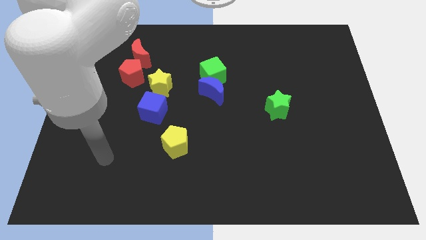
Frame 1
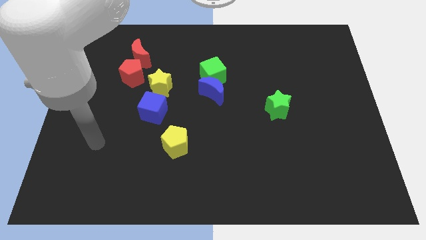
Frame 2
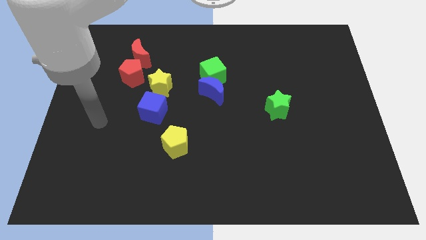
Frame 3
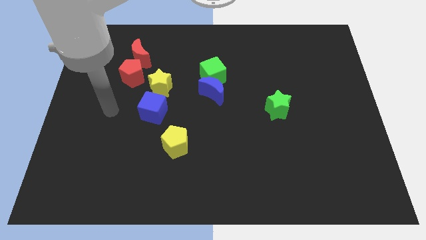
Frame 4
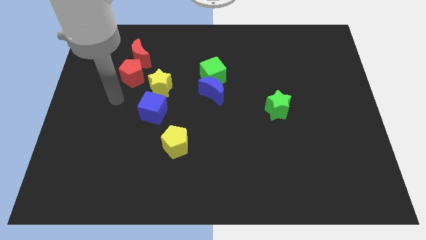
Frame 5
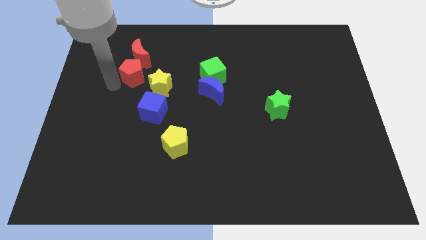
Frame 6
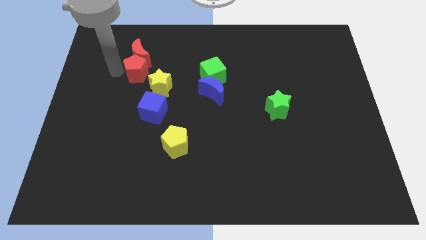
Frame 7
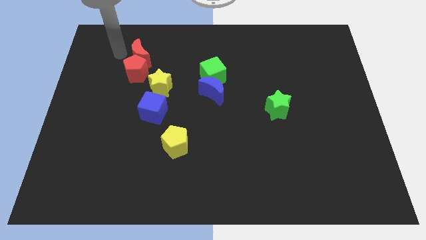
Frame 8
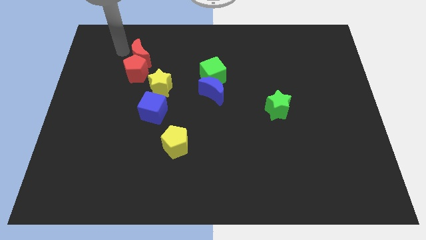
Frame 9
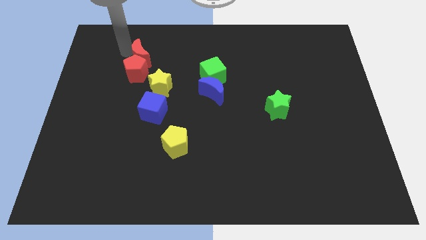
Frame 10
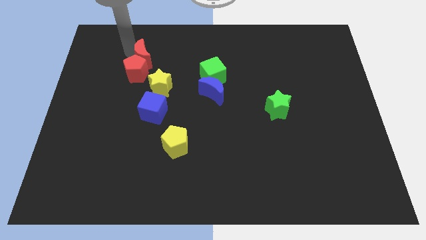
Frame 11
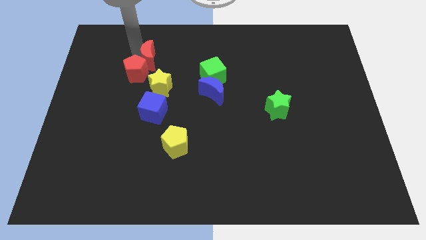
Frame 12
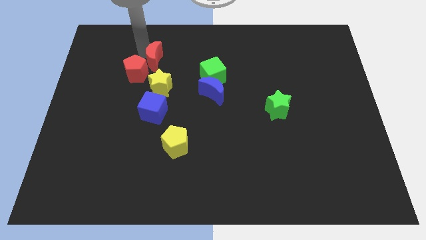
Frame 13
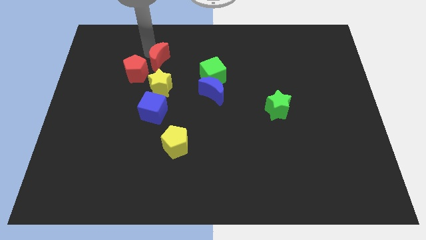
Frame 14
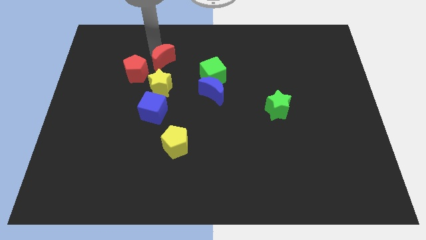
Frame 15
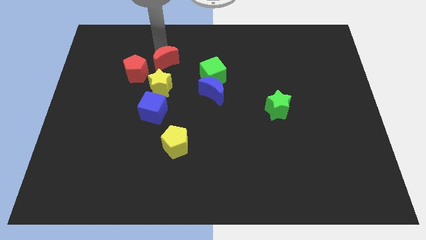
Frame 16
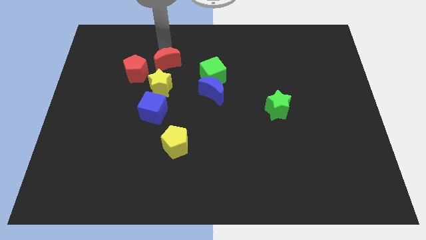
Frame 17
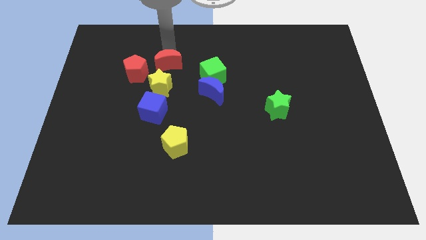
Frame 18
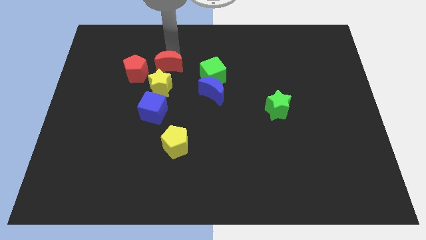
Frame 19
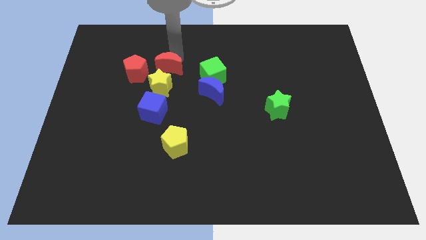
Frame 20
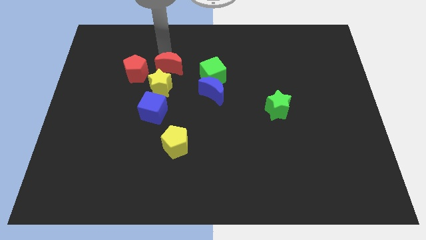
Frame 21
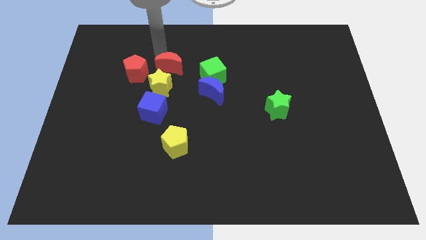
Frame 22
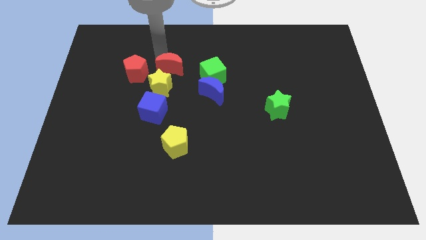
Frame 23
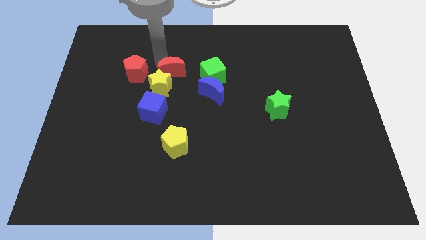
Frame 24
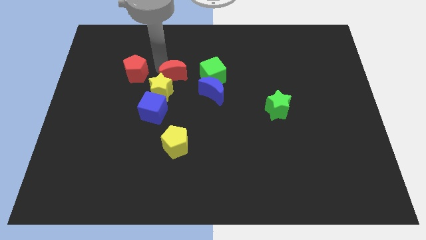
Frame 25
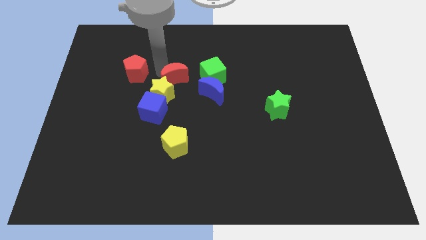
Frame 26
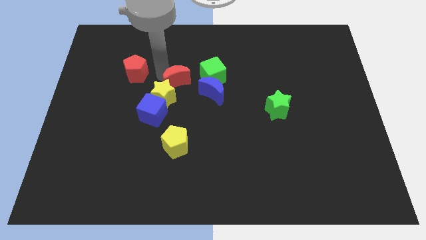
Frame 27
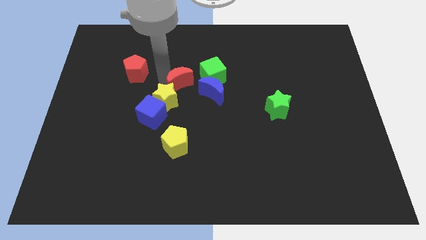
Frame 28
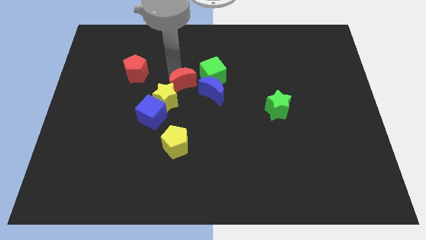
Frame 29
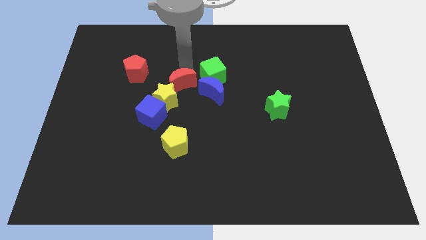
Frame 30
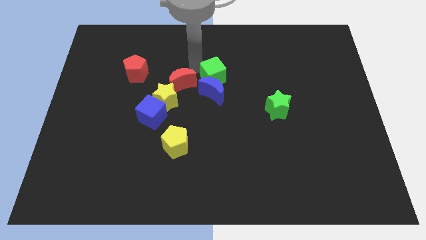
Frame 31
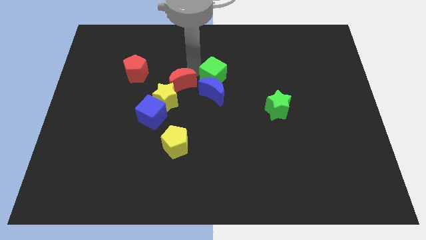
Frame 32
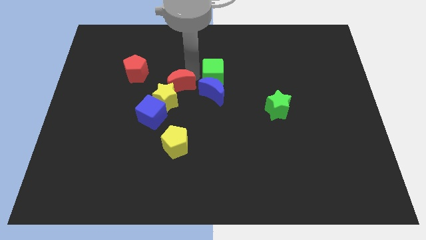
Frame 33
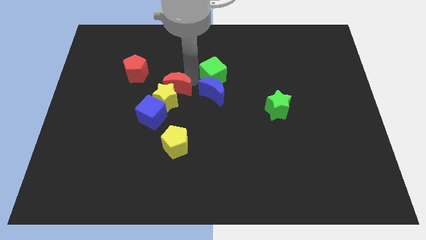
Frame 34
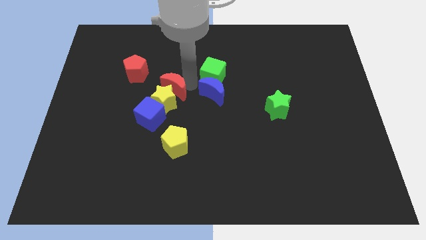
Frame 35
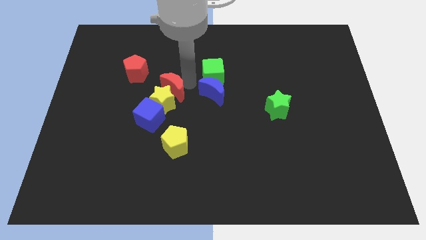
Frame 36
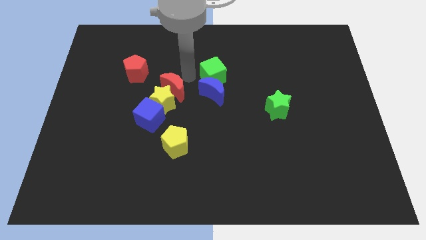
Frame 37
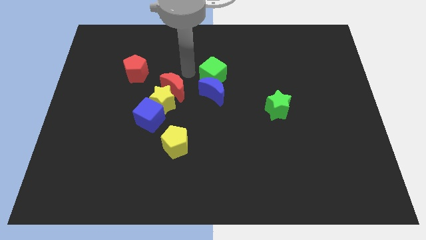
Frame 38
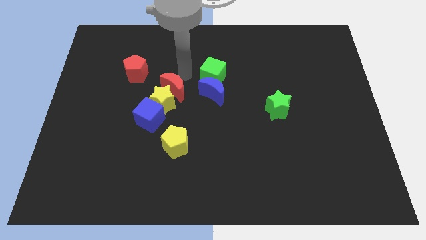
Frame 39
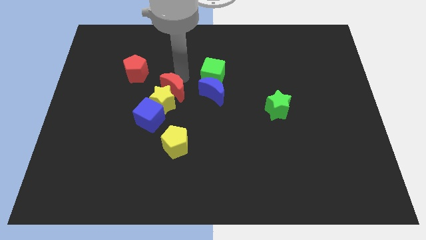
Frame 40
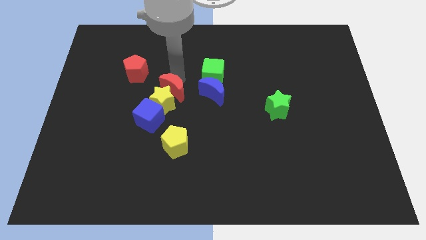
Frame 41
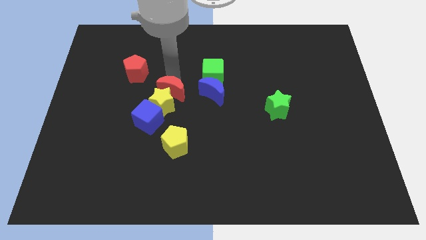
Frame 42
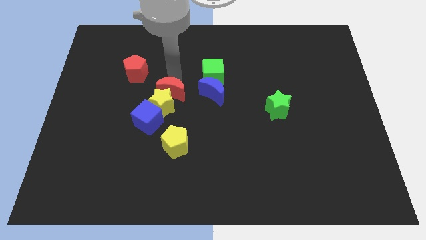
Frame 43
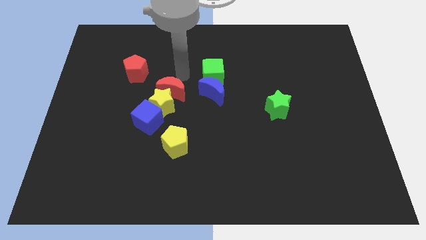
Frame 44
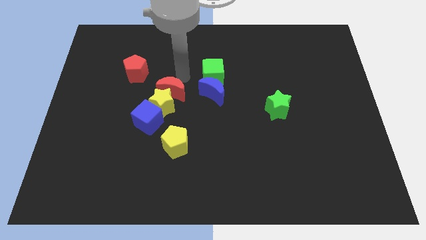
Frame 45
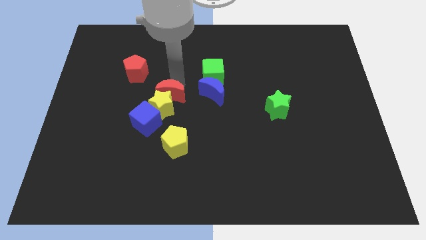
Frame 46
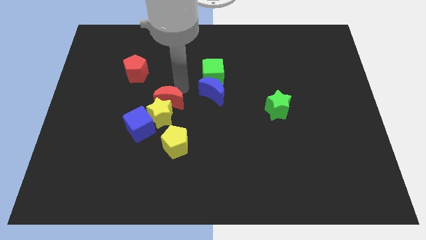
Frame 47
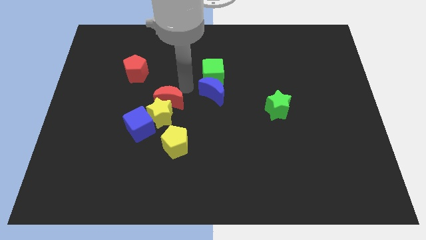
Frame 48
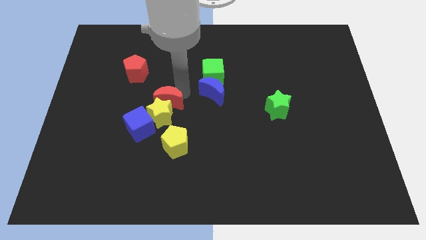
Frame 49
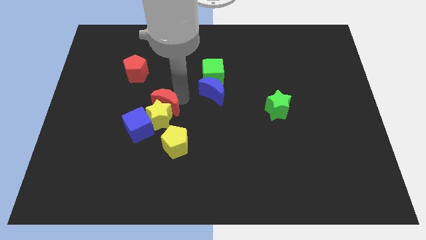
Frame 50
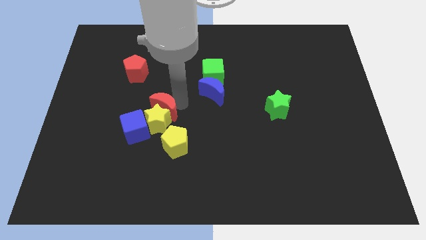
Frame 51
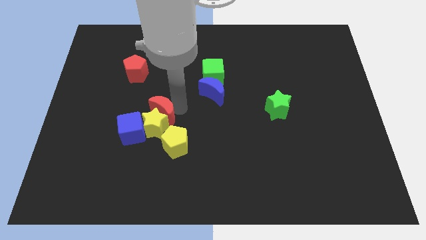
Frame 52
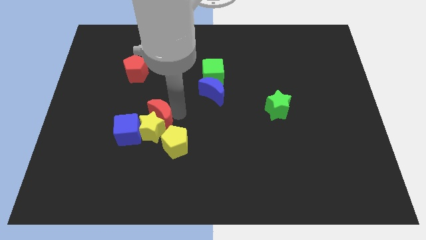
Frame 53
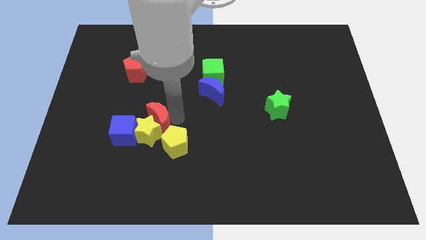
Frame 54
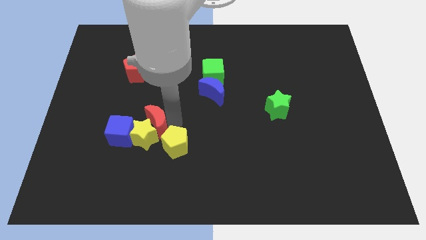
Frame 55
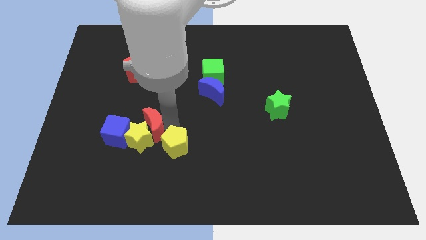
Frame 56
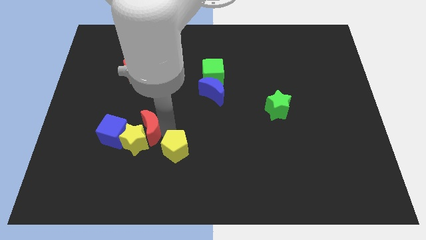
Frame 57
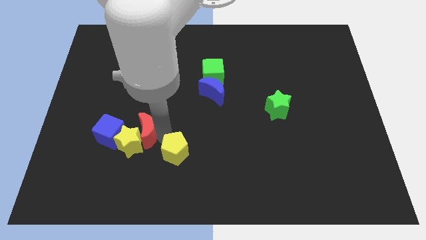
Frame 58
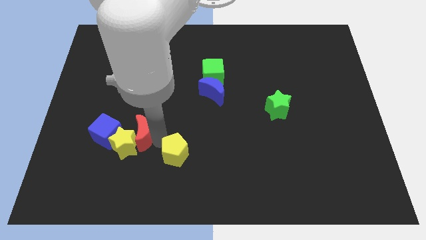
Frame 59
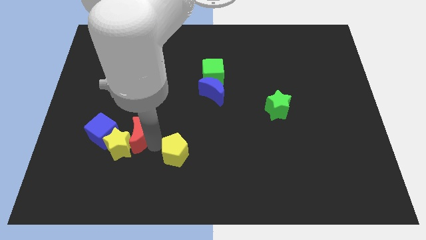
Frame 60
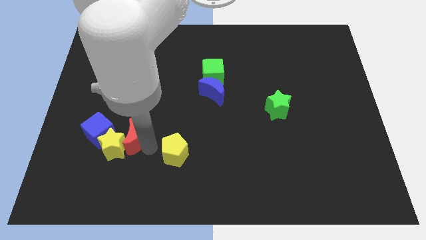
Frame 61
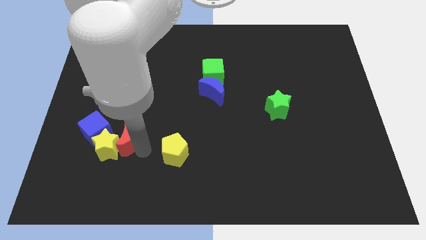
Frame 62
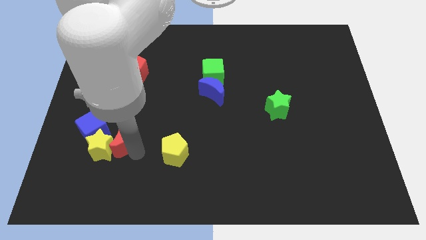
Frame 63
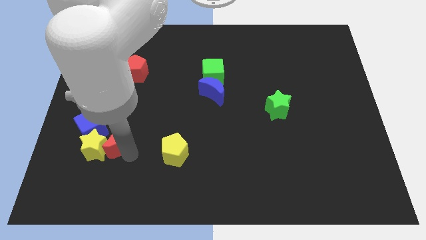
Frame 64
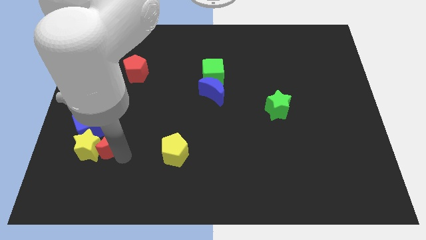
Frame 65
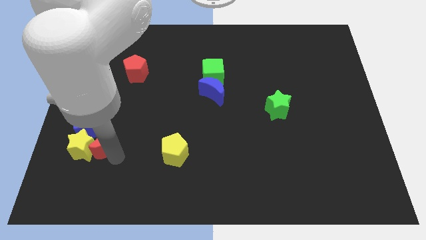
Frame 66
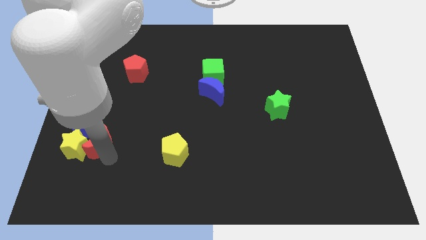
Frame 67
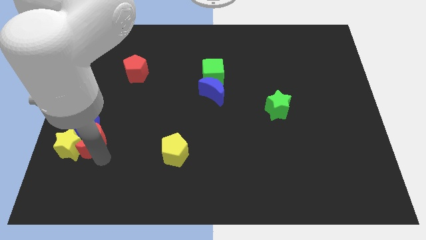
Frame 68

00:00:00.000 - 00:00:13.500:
move the red moon to the blue cube

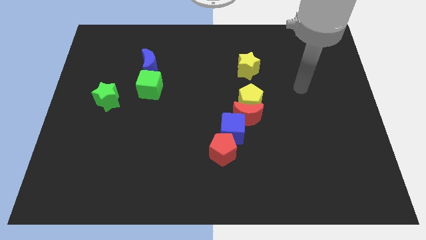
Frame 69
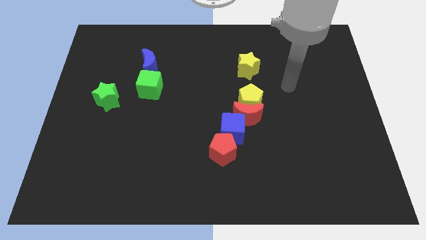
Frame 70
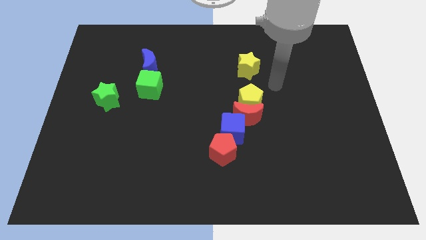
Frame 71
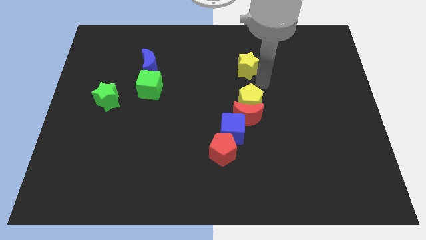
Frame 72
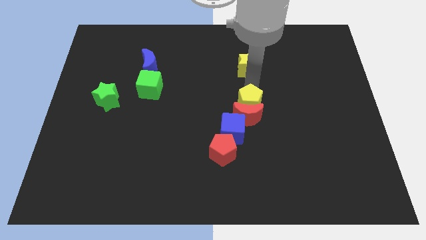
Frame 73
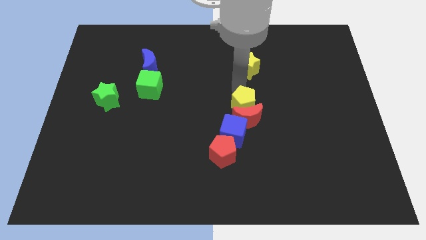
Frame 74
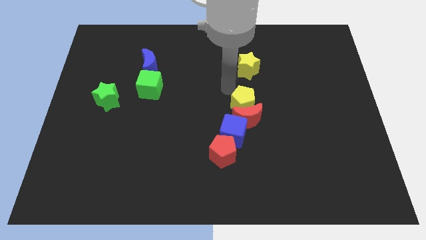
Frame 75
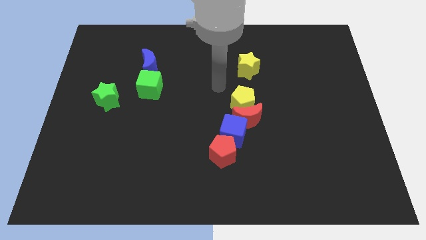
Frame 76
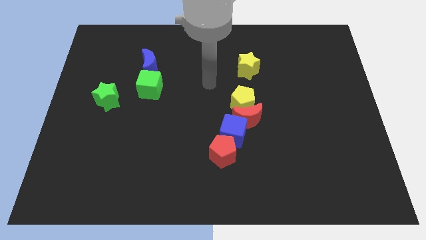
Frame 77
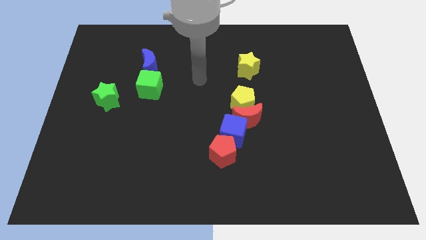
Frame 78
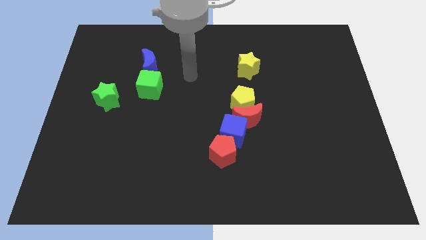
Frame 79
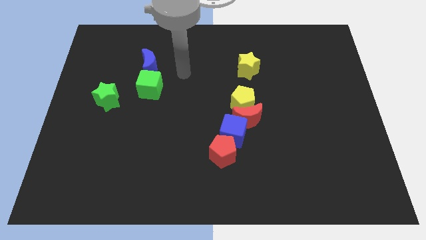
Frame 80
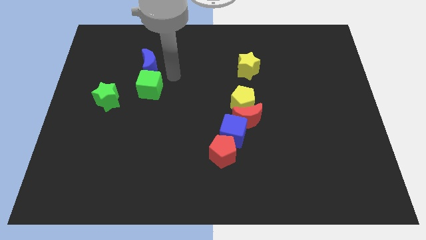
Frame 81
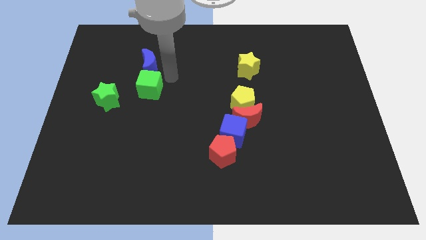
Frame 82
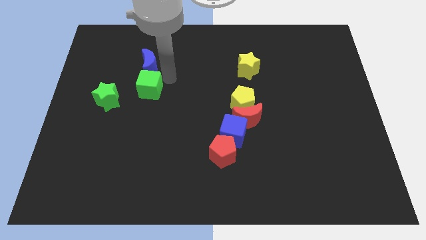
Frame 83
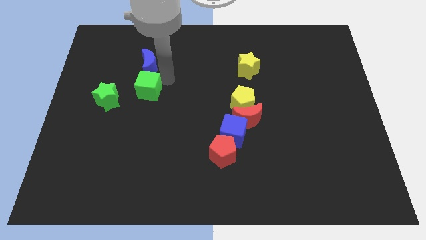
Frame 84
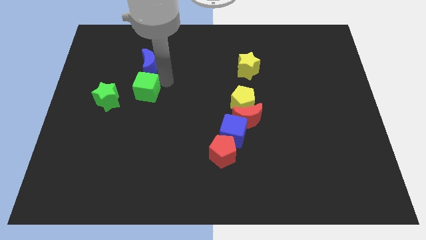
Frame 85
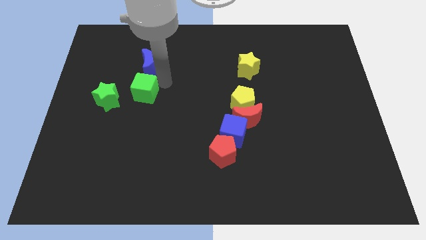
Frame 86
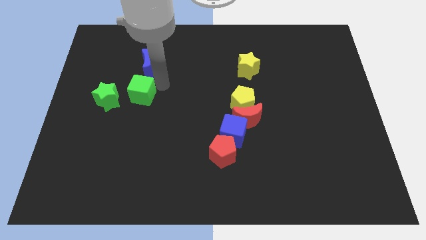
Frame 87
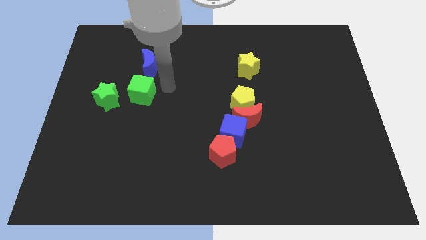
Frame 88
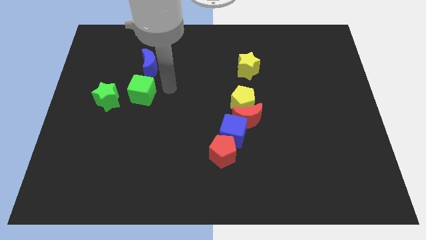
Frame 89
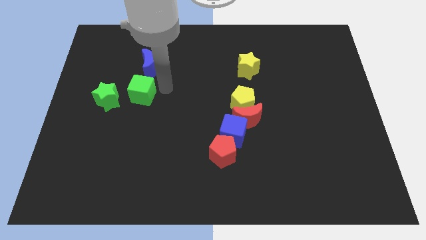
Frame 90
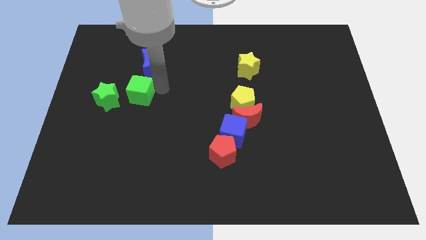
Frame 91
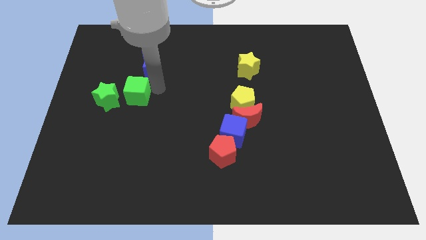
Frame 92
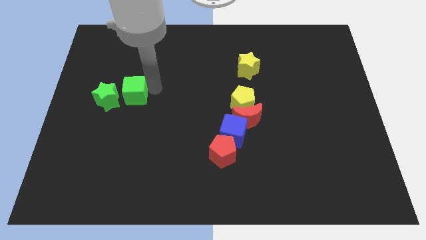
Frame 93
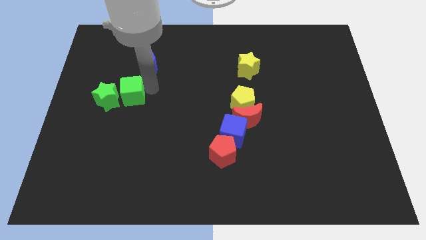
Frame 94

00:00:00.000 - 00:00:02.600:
move the green cube to the green star
